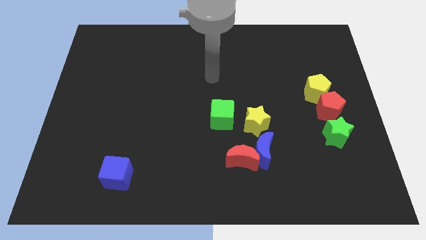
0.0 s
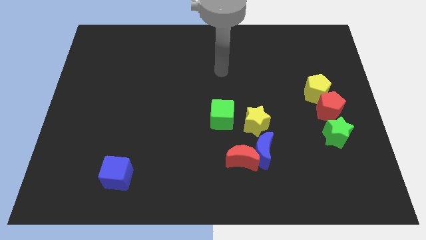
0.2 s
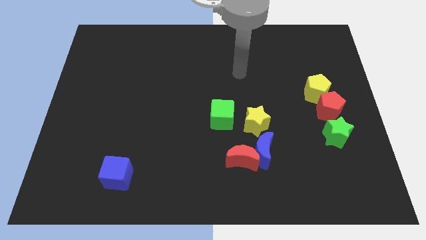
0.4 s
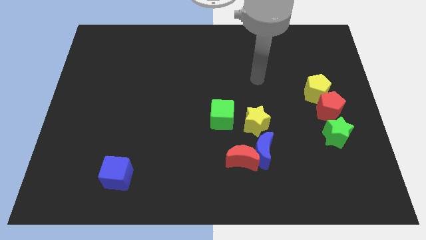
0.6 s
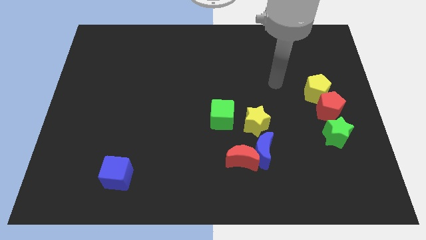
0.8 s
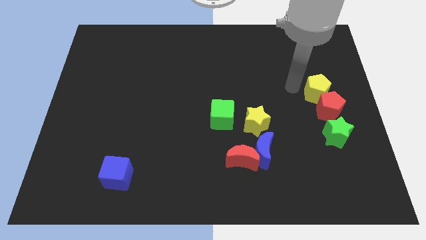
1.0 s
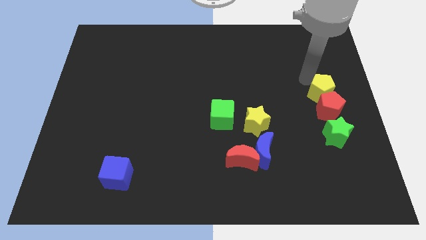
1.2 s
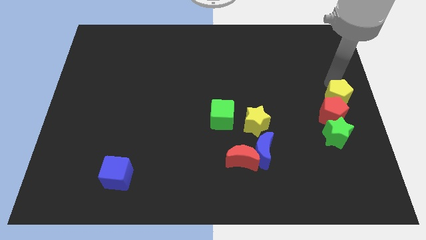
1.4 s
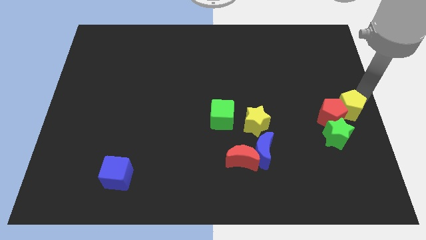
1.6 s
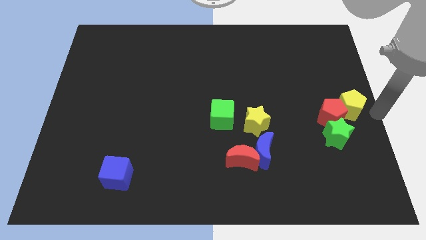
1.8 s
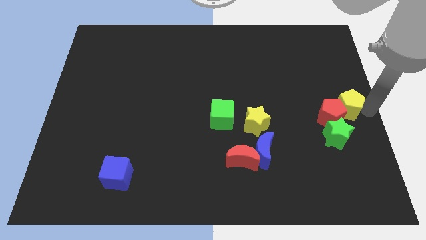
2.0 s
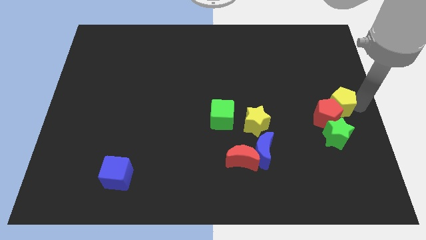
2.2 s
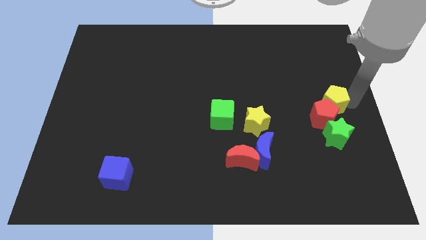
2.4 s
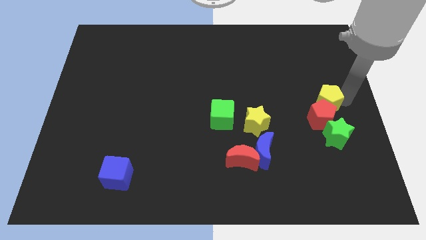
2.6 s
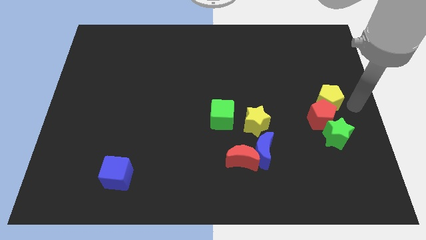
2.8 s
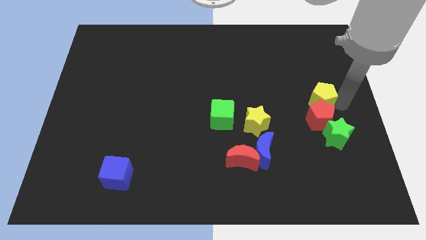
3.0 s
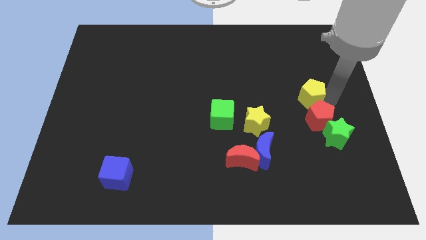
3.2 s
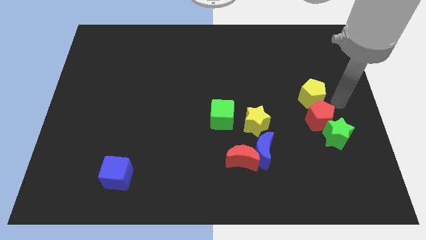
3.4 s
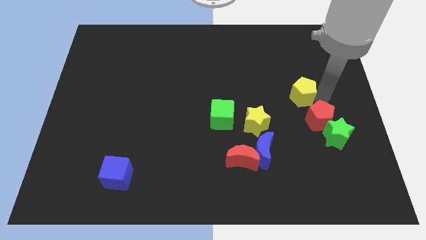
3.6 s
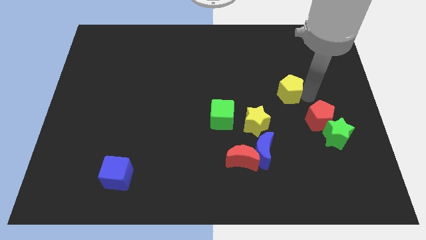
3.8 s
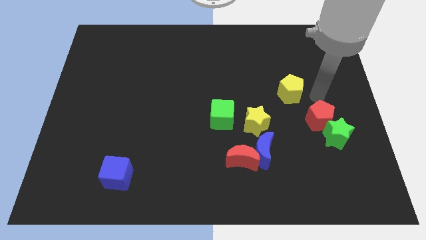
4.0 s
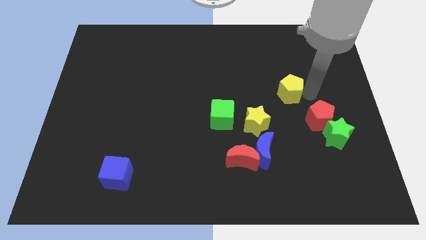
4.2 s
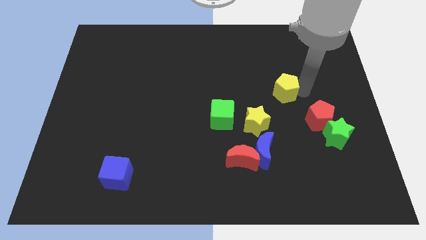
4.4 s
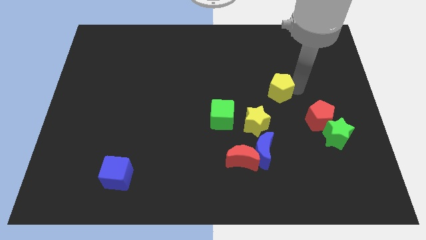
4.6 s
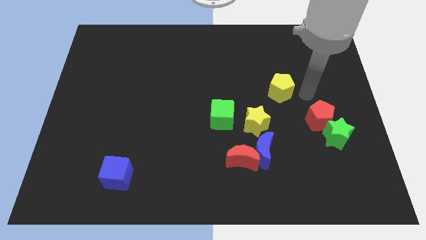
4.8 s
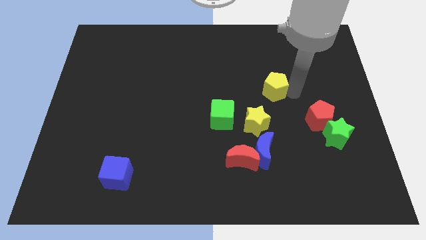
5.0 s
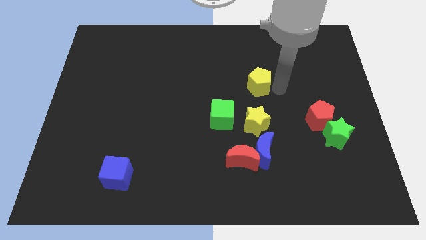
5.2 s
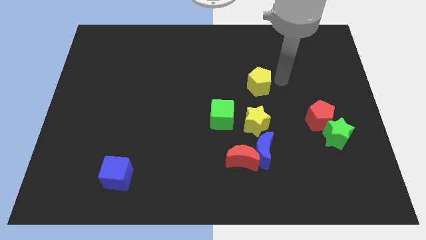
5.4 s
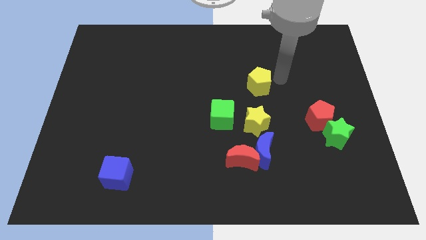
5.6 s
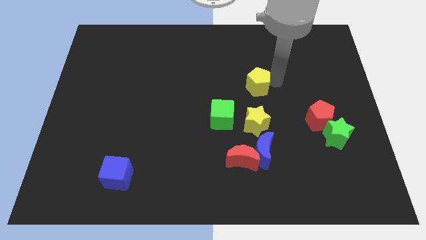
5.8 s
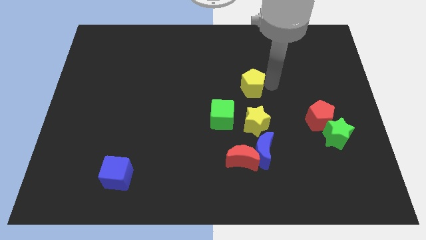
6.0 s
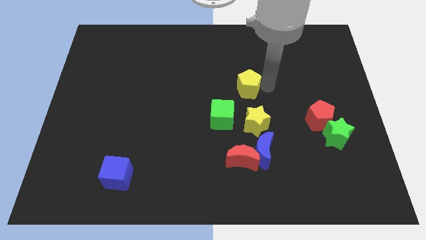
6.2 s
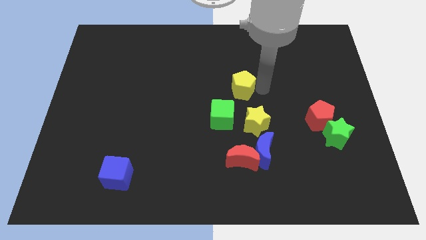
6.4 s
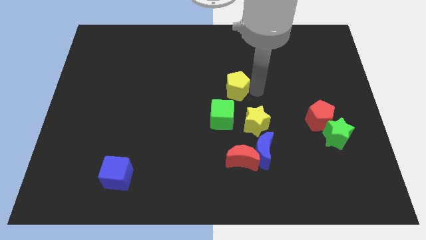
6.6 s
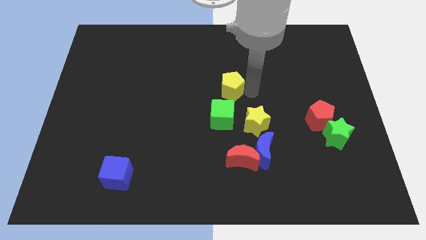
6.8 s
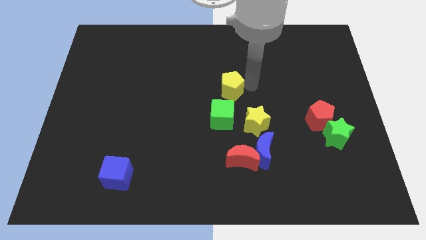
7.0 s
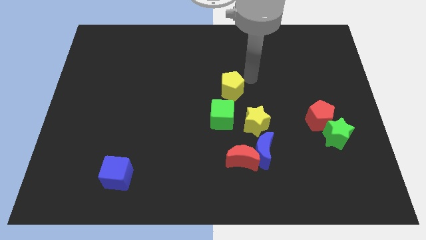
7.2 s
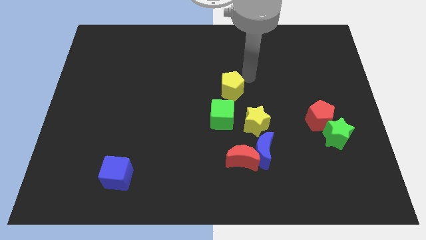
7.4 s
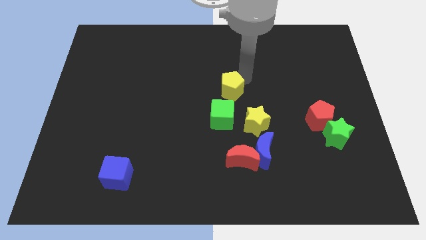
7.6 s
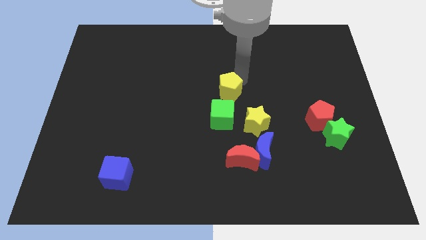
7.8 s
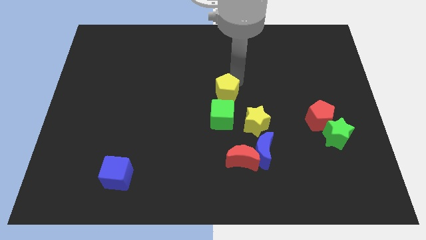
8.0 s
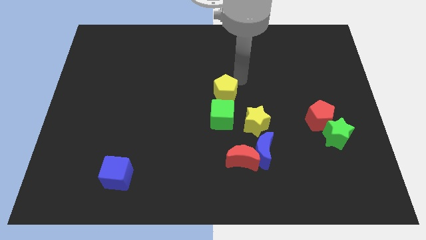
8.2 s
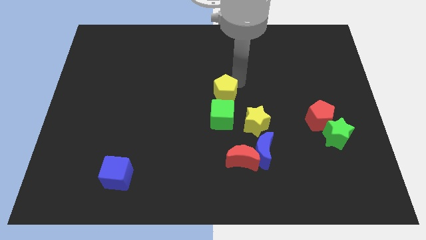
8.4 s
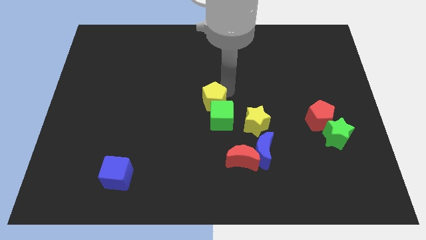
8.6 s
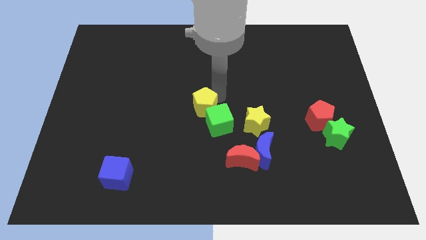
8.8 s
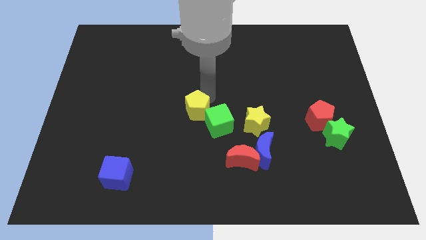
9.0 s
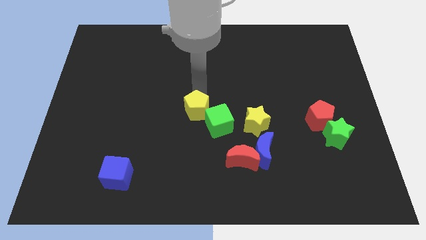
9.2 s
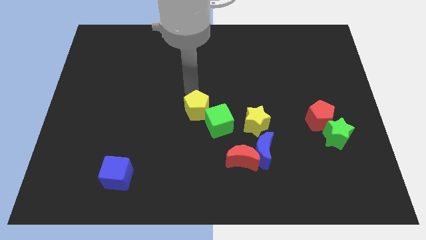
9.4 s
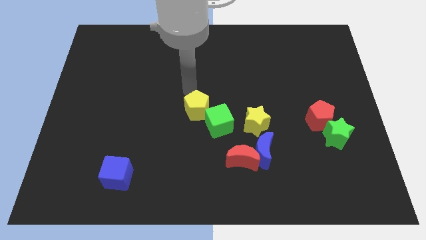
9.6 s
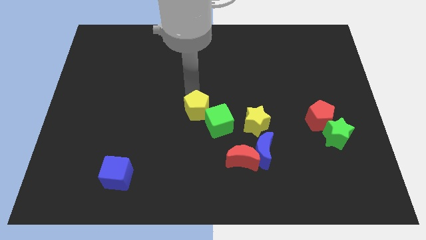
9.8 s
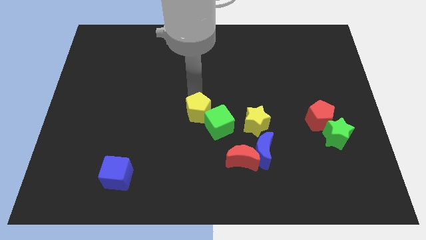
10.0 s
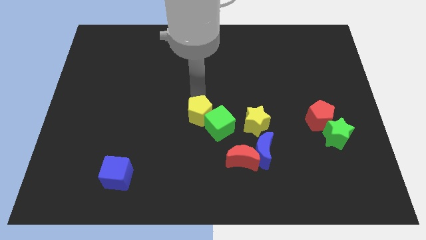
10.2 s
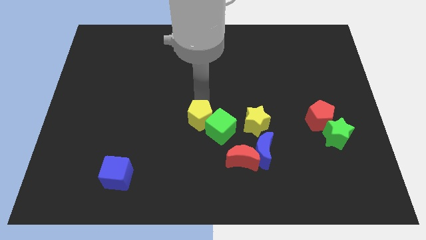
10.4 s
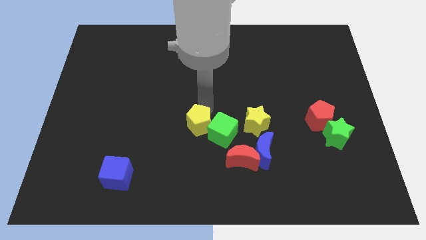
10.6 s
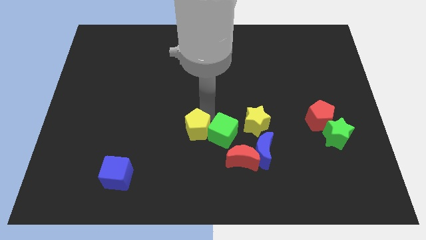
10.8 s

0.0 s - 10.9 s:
push the yellow pentagon to the bottom left side of the green cube

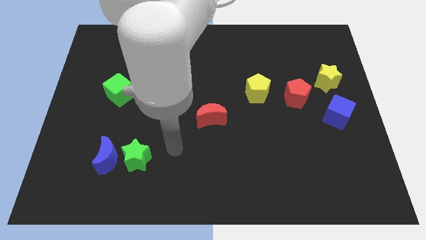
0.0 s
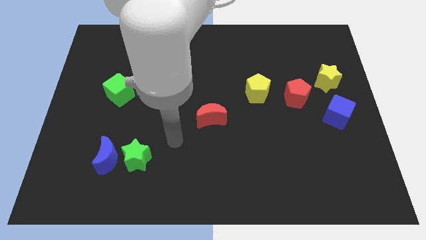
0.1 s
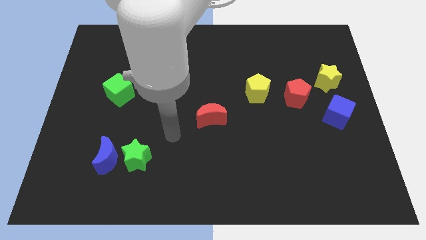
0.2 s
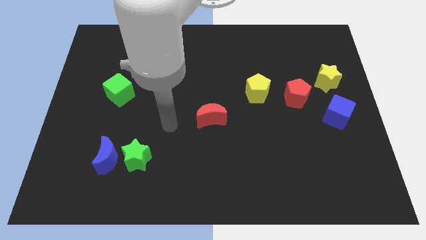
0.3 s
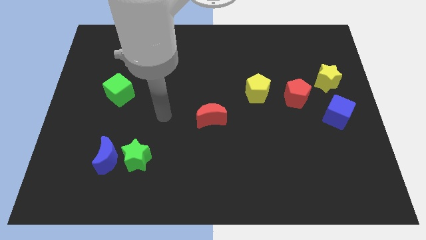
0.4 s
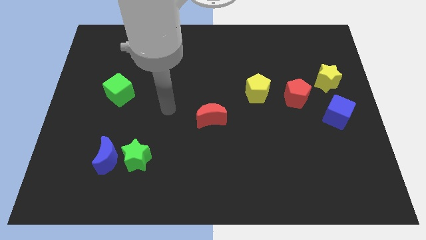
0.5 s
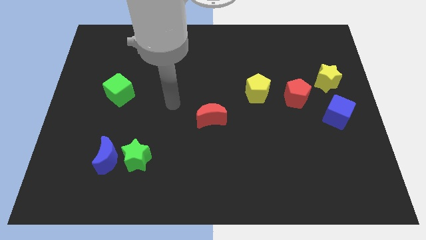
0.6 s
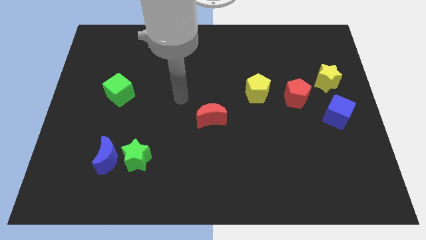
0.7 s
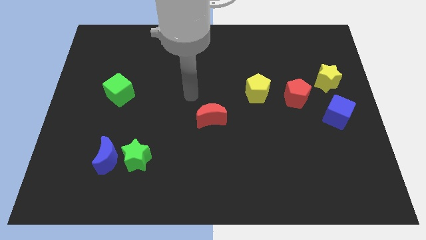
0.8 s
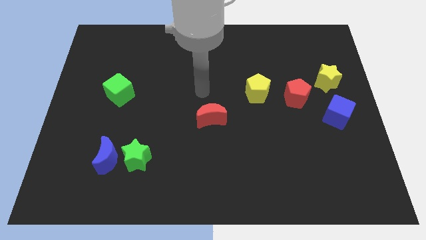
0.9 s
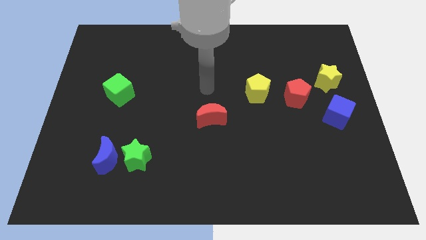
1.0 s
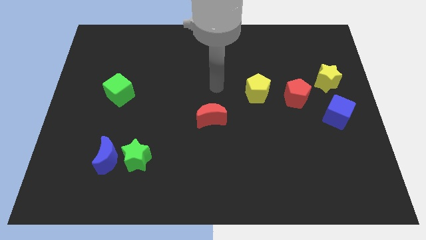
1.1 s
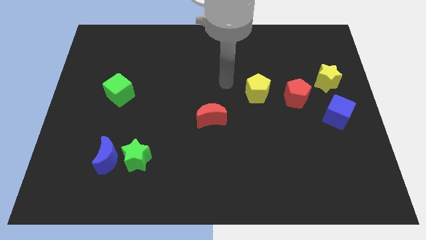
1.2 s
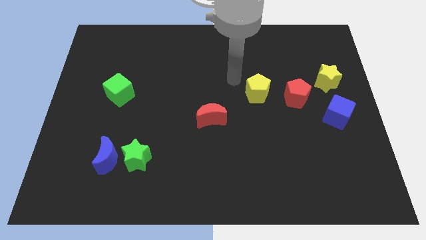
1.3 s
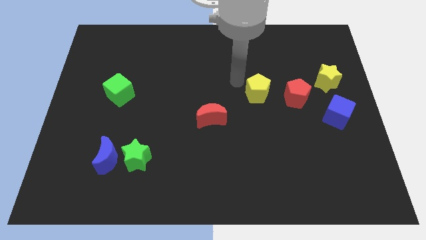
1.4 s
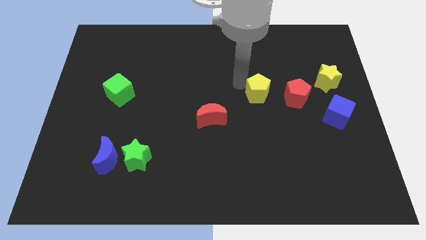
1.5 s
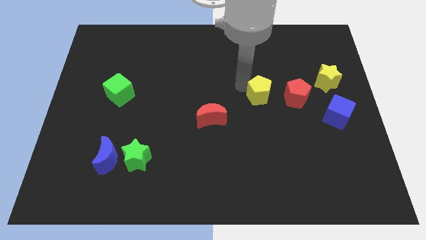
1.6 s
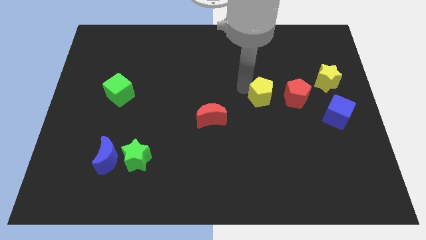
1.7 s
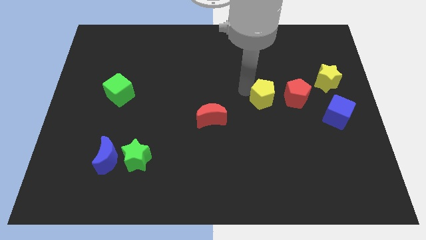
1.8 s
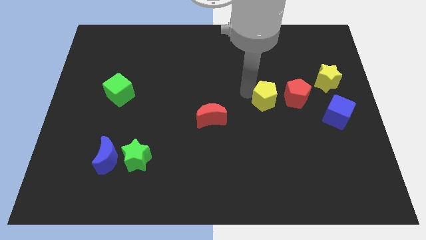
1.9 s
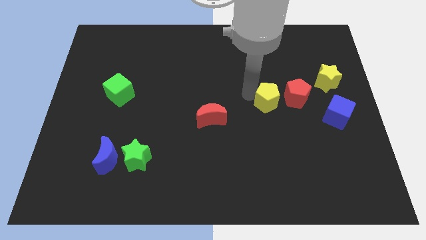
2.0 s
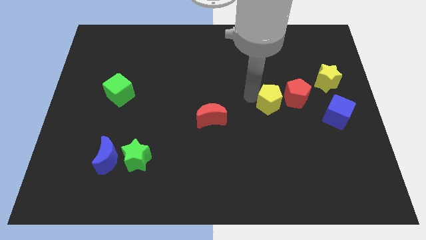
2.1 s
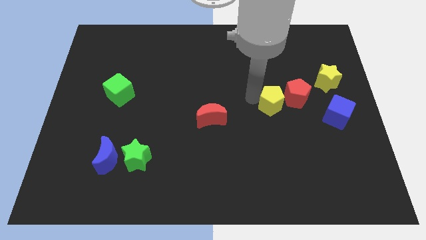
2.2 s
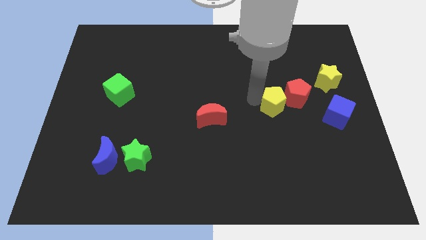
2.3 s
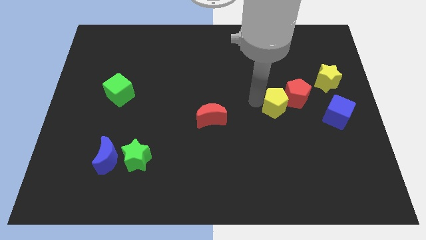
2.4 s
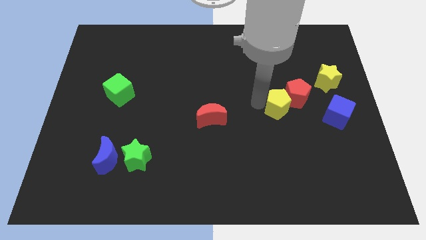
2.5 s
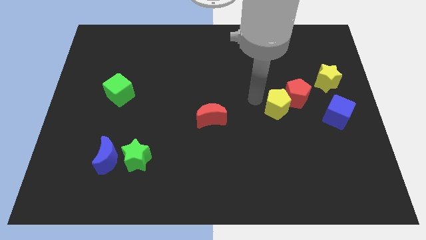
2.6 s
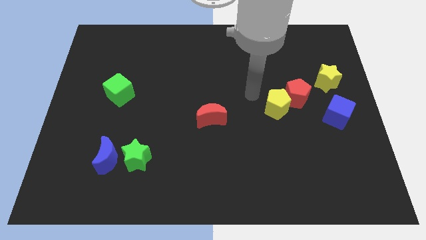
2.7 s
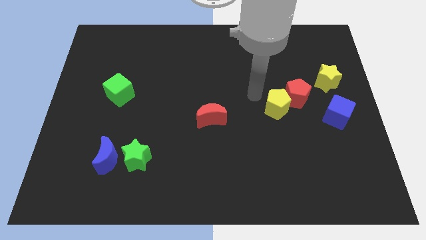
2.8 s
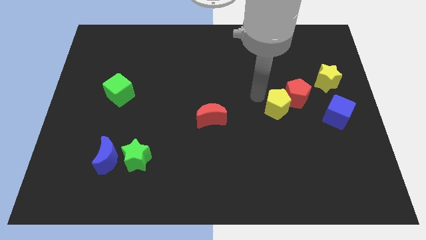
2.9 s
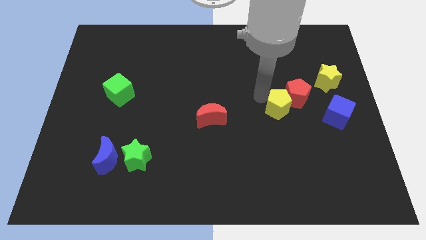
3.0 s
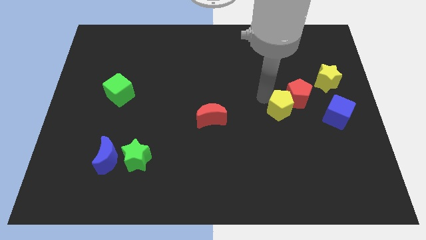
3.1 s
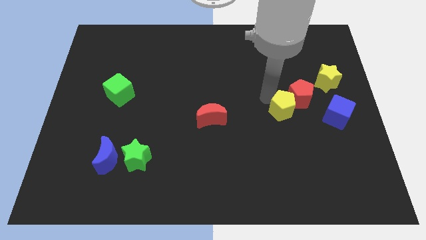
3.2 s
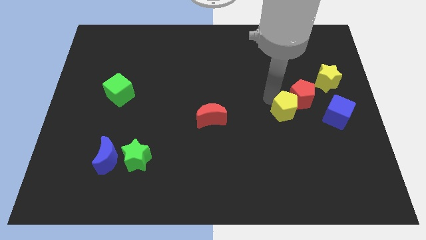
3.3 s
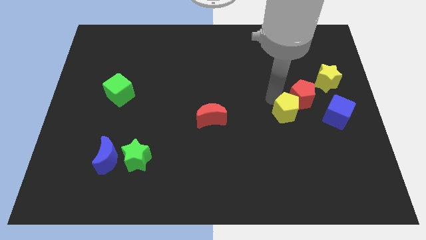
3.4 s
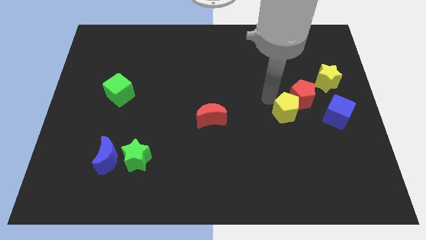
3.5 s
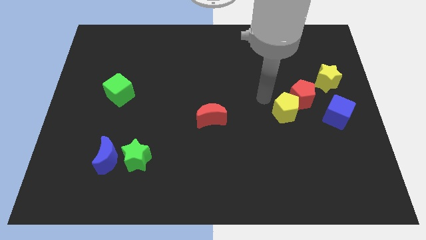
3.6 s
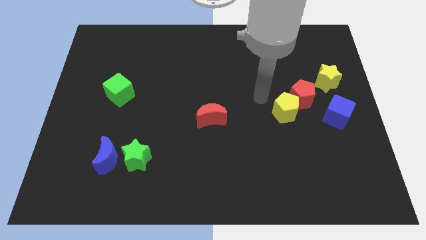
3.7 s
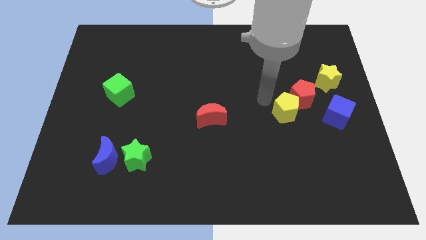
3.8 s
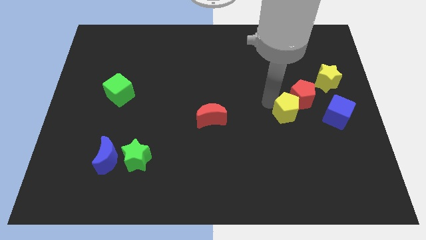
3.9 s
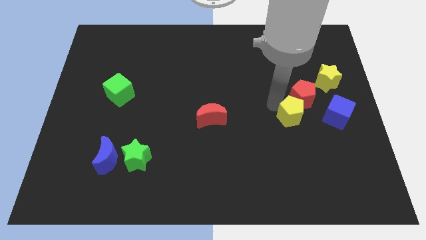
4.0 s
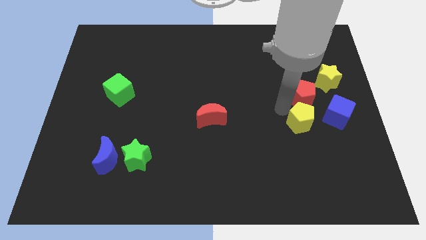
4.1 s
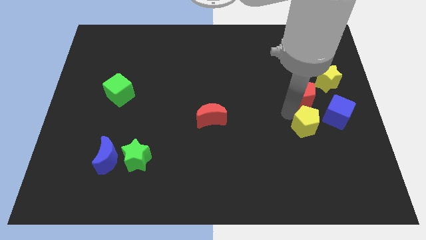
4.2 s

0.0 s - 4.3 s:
move the yellow pentagon to the bottom left of the blue cube
